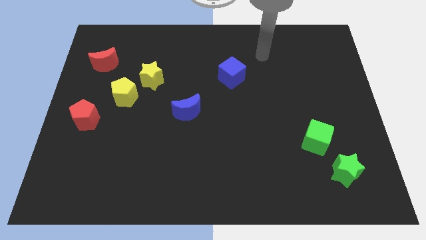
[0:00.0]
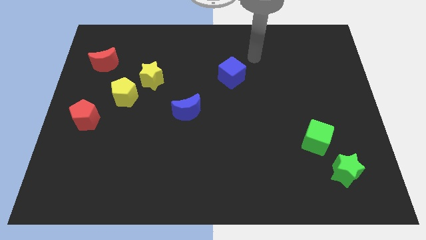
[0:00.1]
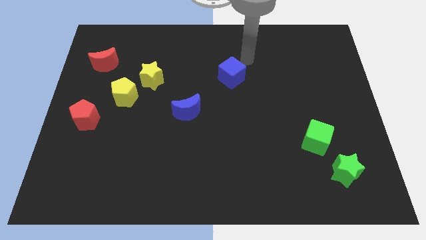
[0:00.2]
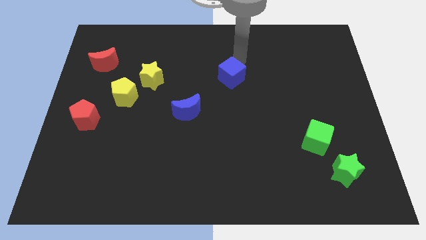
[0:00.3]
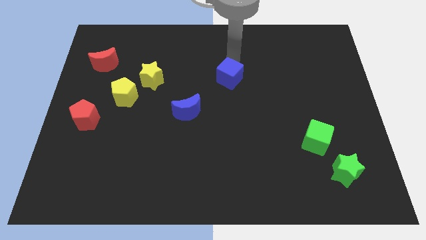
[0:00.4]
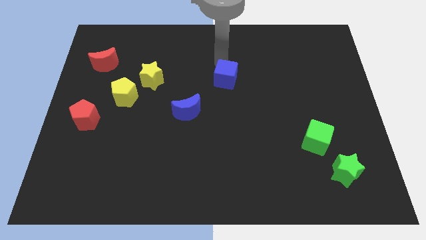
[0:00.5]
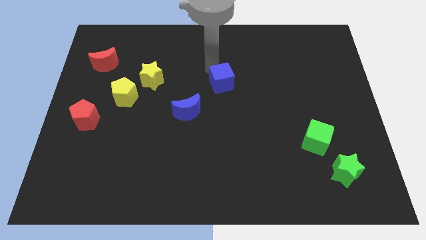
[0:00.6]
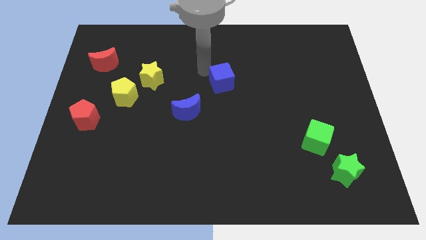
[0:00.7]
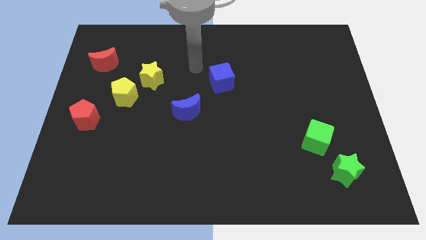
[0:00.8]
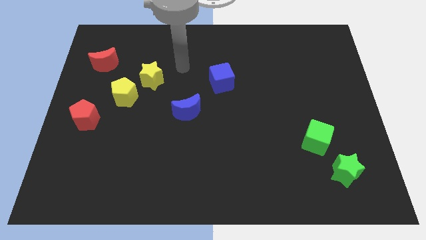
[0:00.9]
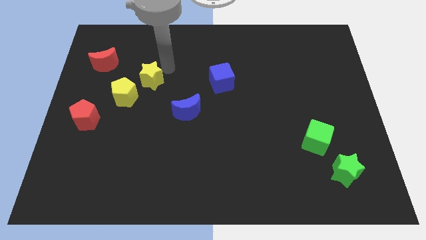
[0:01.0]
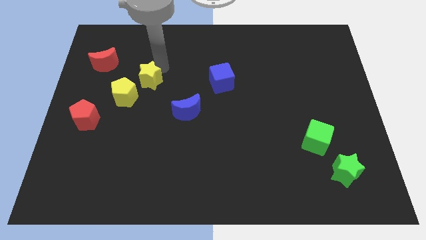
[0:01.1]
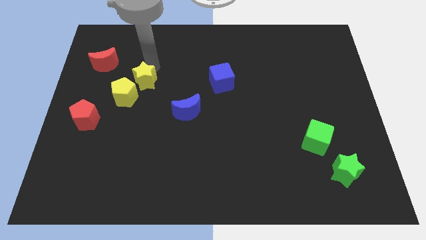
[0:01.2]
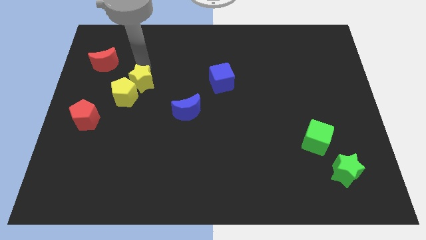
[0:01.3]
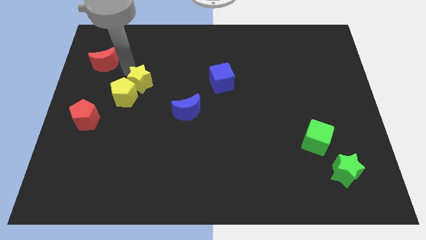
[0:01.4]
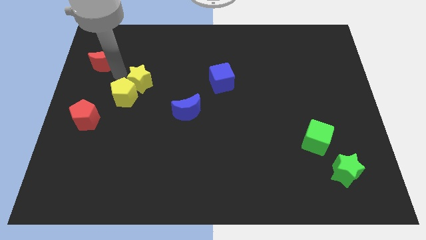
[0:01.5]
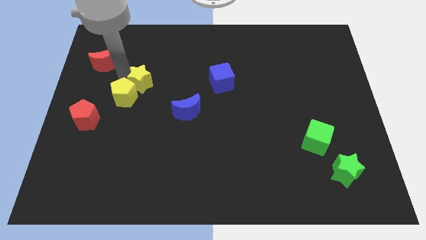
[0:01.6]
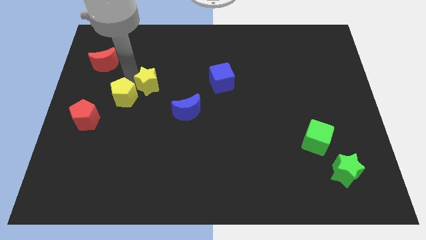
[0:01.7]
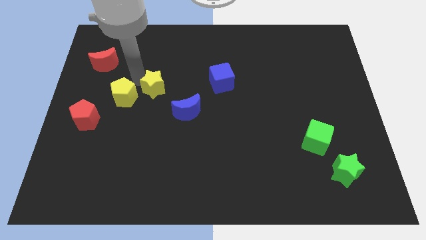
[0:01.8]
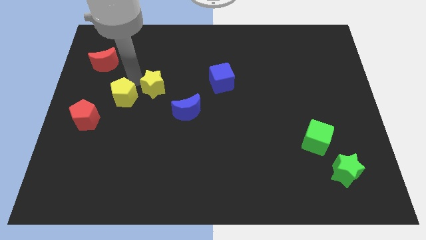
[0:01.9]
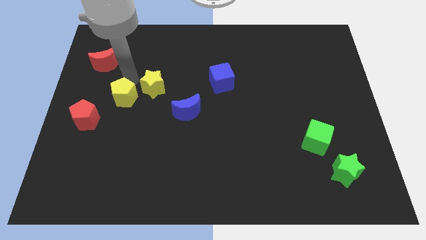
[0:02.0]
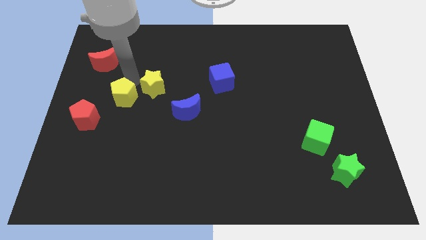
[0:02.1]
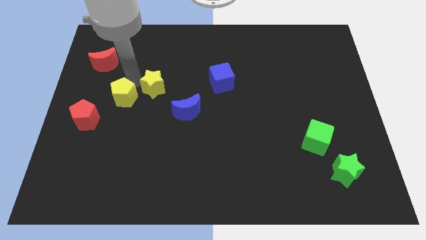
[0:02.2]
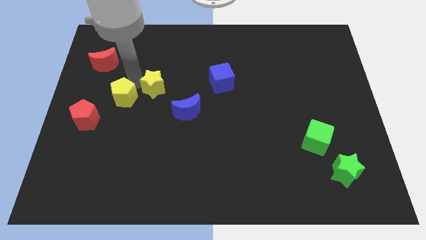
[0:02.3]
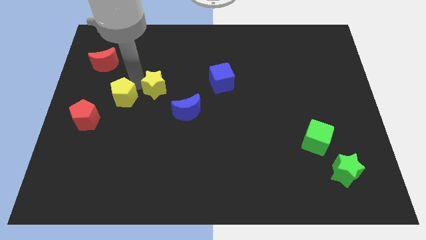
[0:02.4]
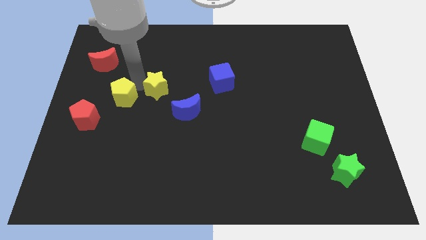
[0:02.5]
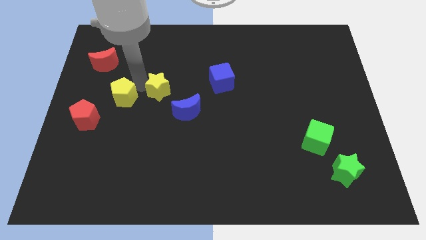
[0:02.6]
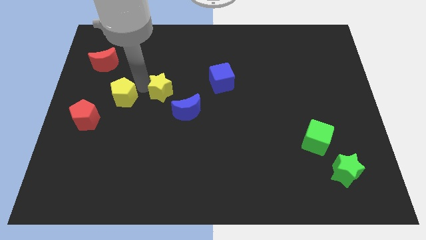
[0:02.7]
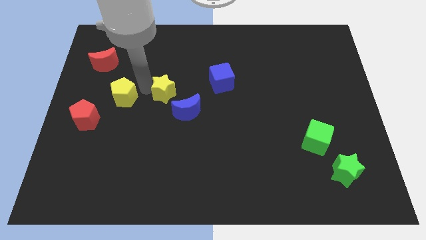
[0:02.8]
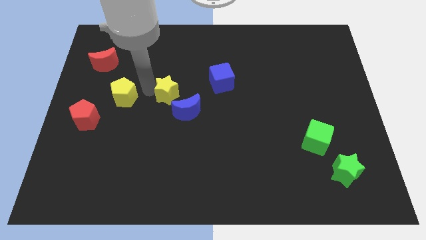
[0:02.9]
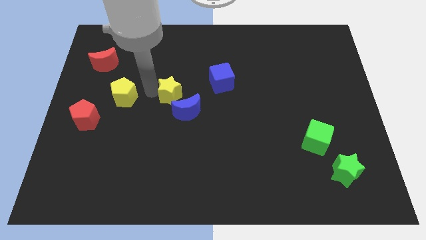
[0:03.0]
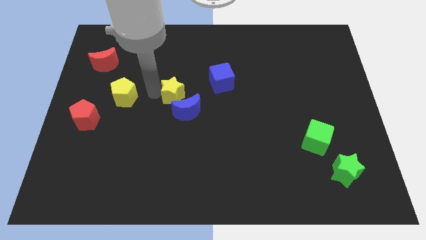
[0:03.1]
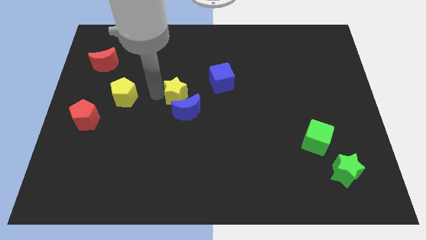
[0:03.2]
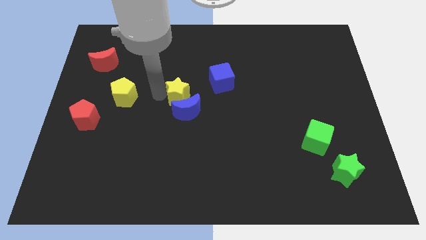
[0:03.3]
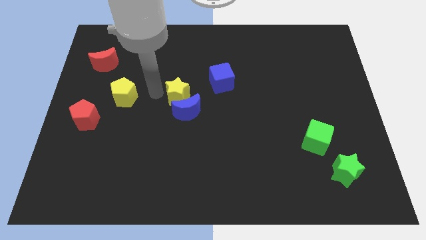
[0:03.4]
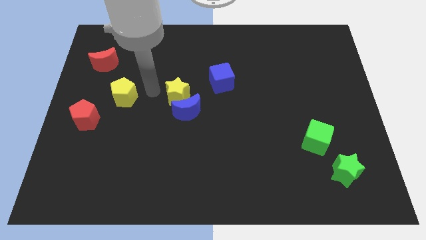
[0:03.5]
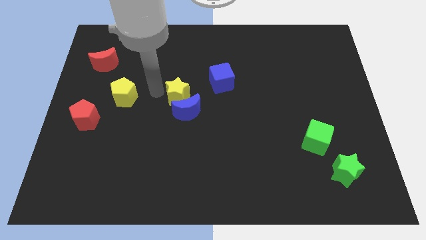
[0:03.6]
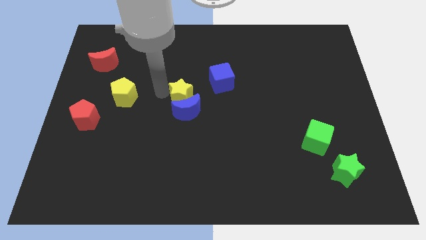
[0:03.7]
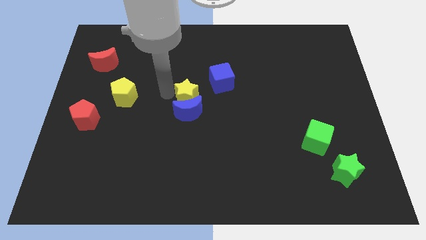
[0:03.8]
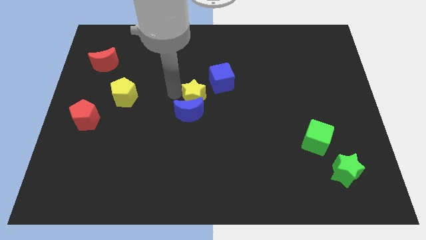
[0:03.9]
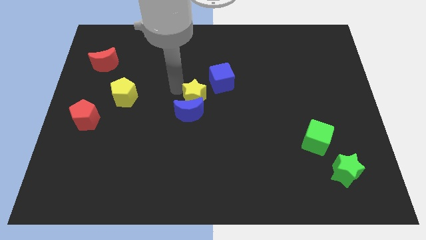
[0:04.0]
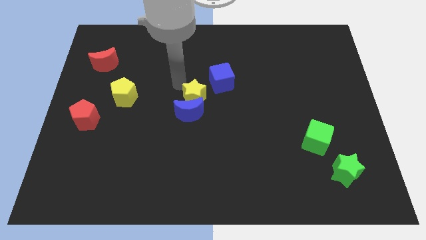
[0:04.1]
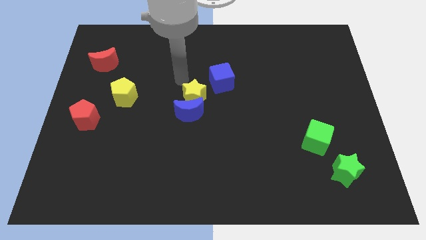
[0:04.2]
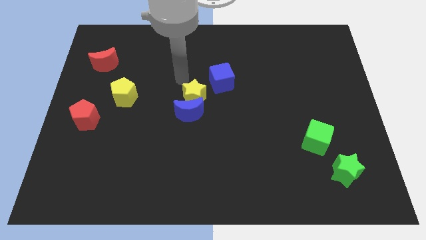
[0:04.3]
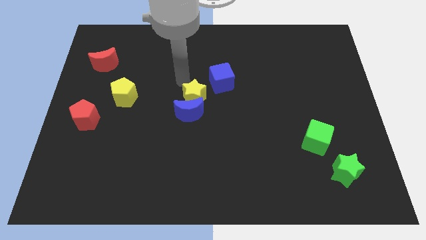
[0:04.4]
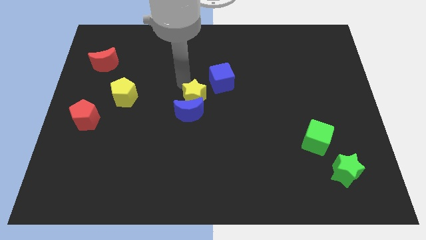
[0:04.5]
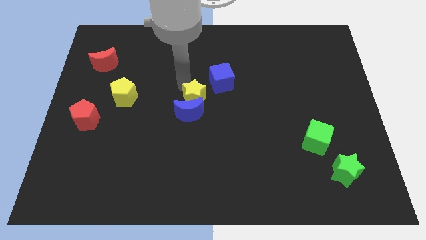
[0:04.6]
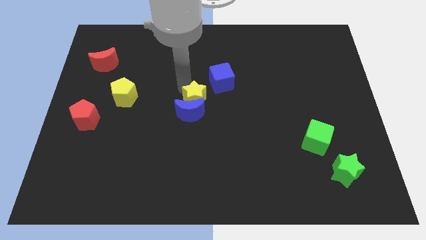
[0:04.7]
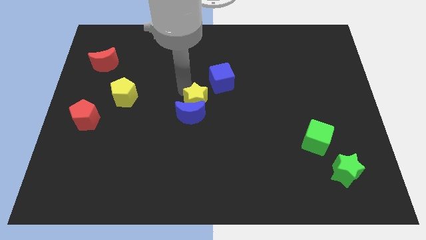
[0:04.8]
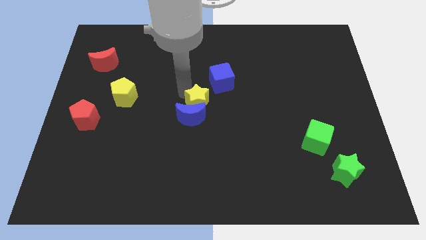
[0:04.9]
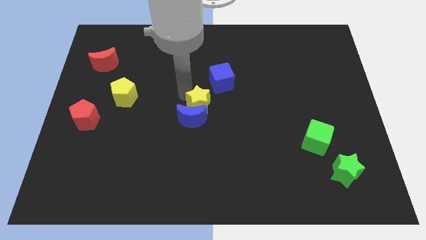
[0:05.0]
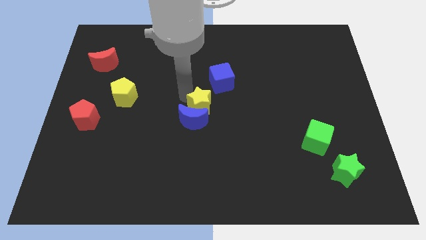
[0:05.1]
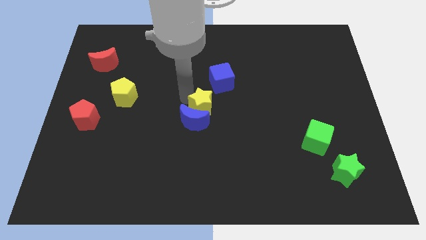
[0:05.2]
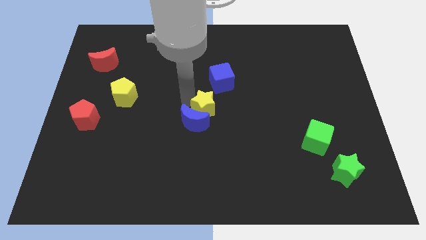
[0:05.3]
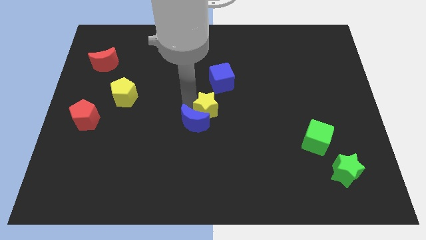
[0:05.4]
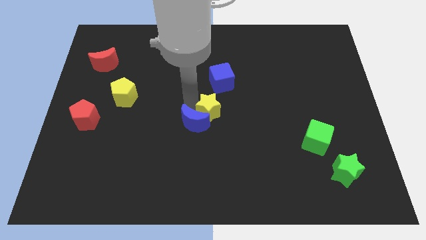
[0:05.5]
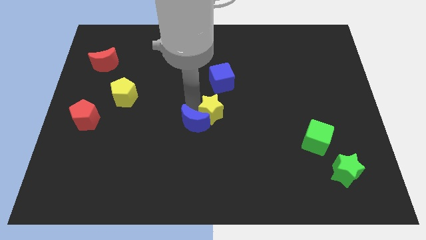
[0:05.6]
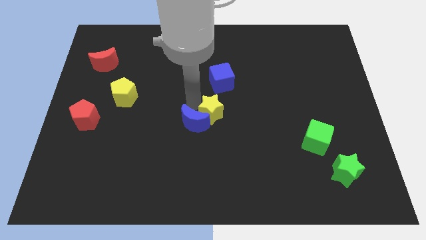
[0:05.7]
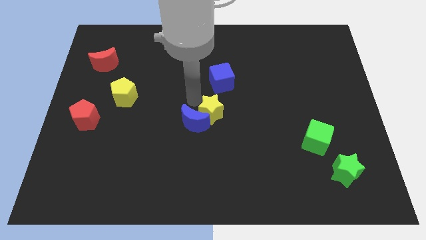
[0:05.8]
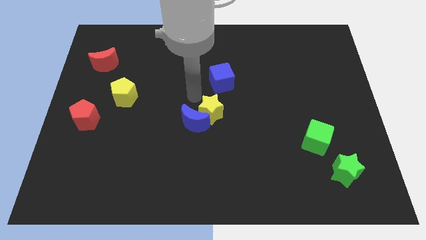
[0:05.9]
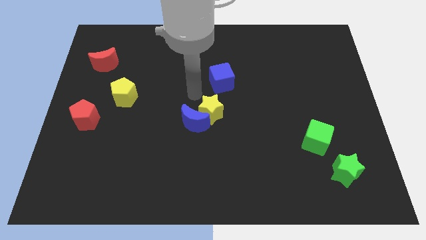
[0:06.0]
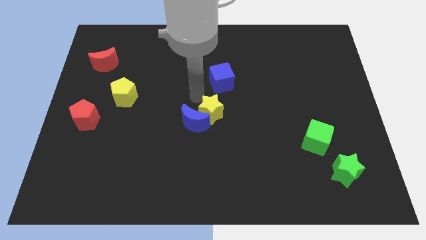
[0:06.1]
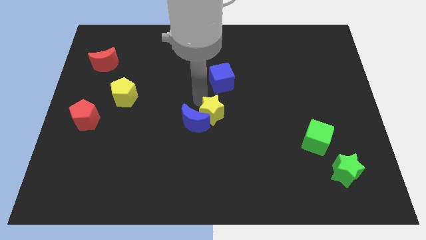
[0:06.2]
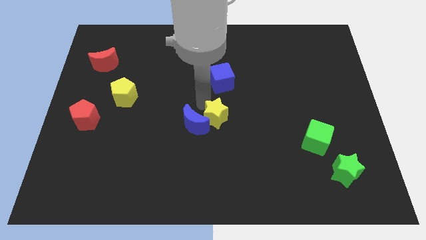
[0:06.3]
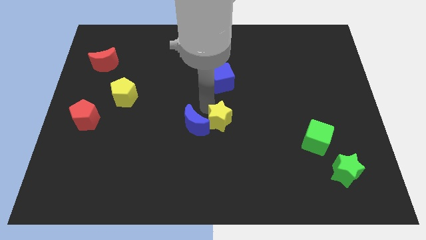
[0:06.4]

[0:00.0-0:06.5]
slide the yellow star downwards and right

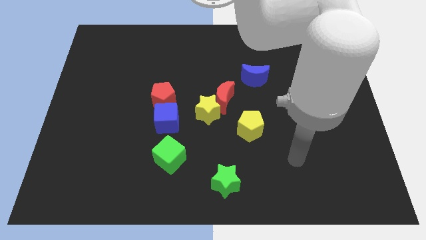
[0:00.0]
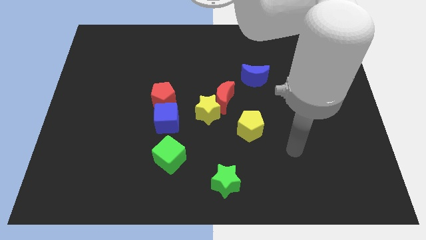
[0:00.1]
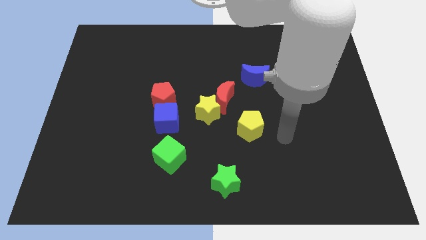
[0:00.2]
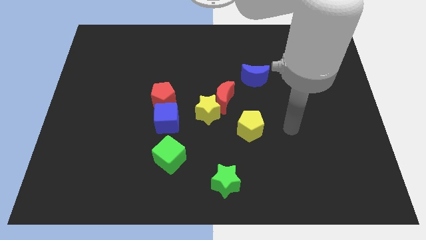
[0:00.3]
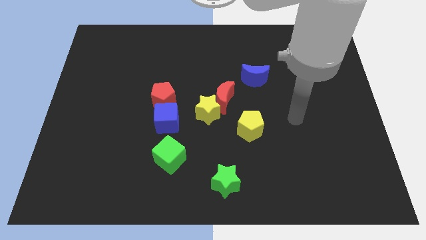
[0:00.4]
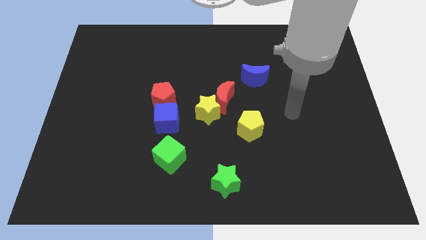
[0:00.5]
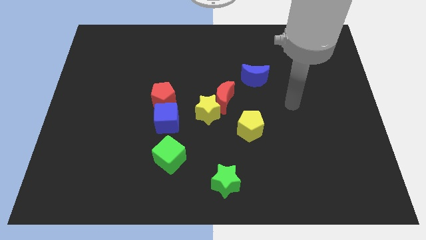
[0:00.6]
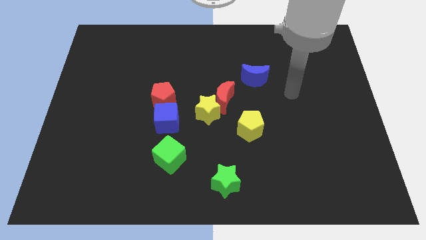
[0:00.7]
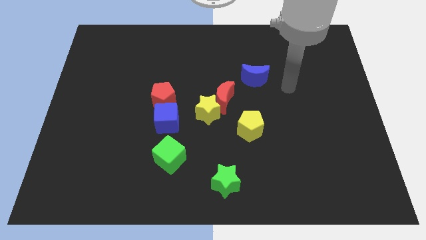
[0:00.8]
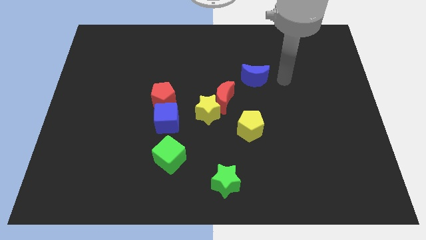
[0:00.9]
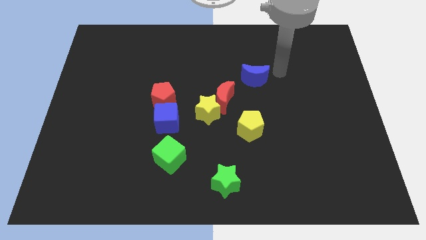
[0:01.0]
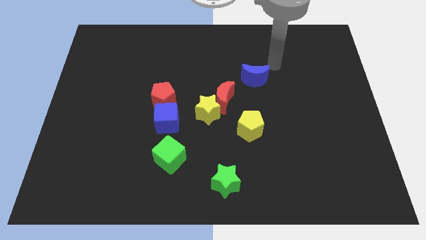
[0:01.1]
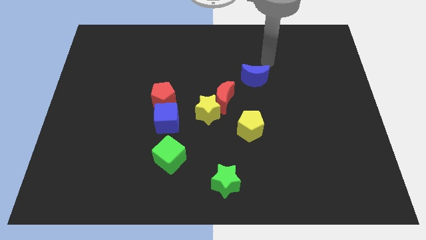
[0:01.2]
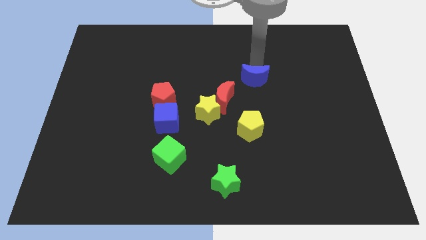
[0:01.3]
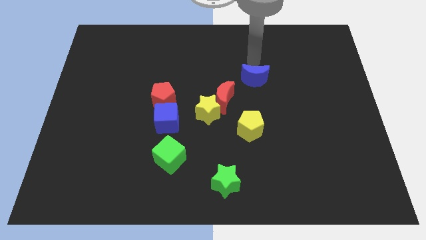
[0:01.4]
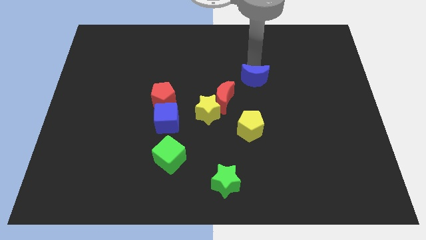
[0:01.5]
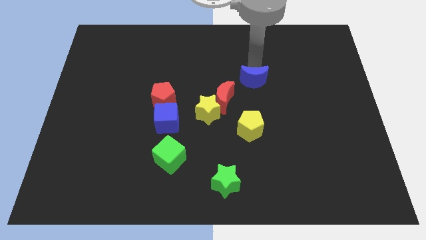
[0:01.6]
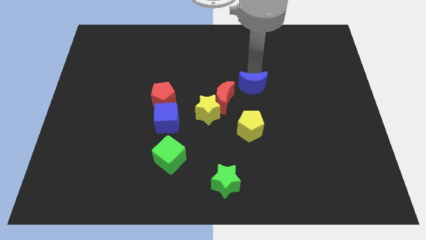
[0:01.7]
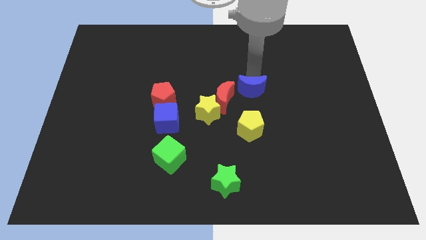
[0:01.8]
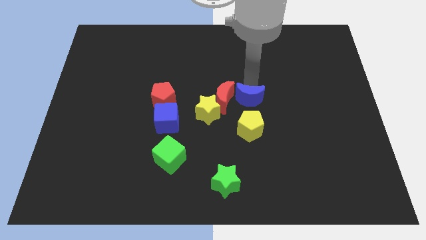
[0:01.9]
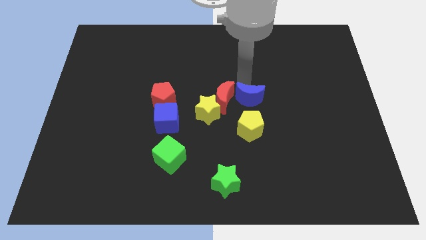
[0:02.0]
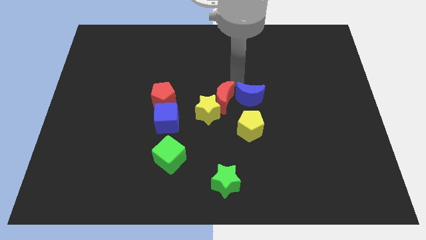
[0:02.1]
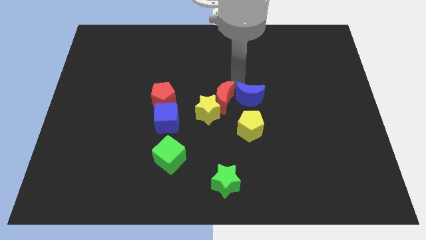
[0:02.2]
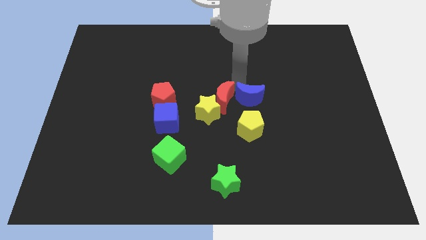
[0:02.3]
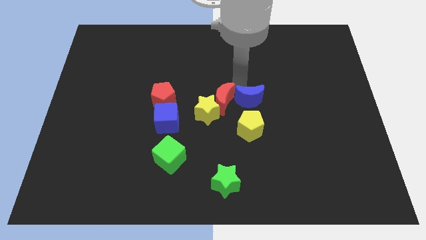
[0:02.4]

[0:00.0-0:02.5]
move the blue moon a bit down
